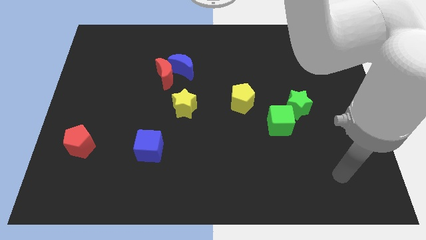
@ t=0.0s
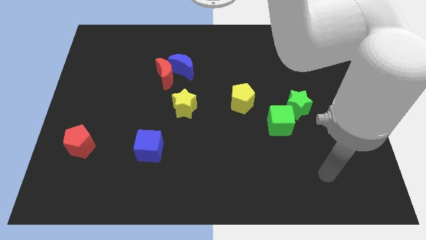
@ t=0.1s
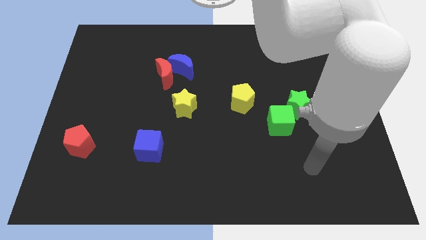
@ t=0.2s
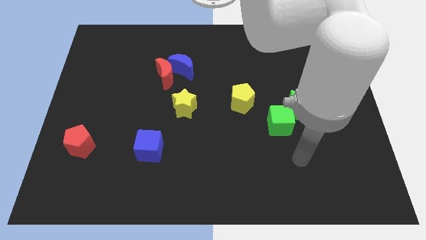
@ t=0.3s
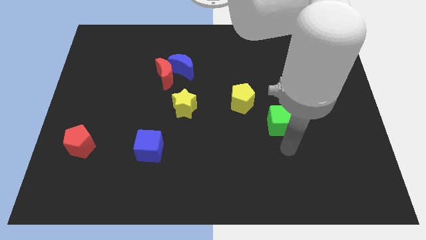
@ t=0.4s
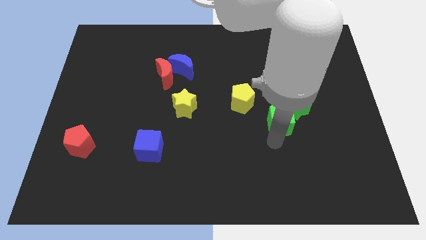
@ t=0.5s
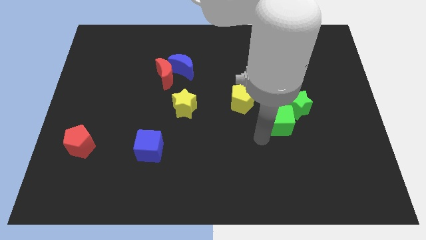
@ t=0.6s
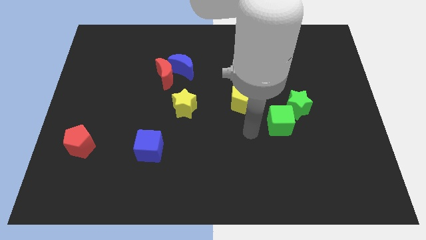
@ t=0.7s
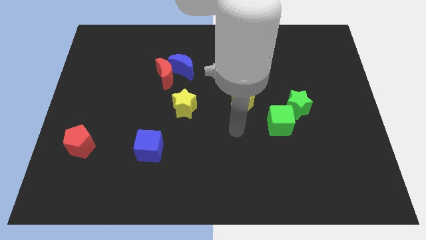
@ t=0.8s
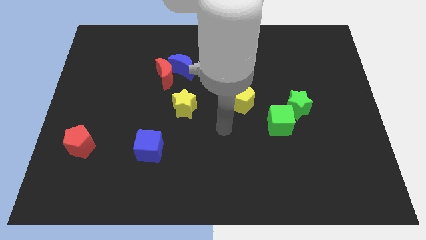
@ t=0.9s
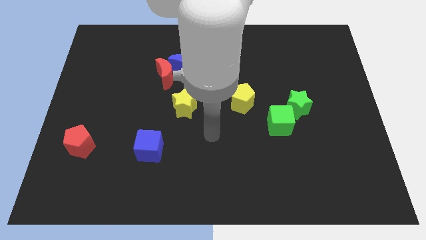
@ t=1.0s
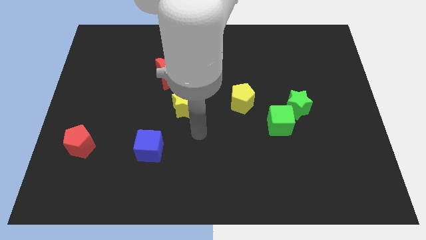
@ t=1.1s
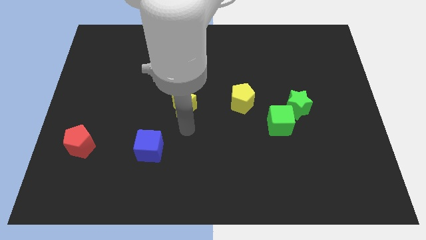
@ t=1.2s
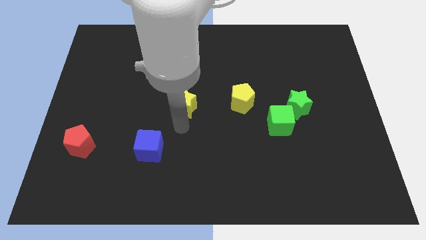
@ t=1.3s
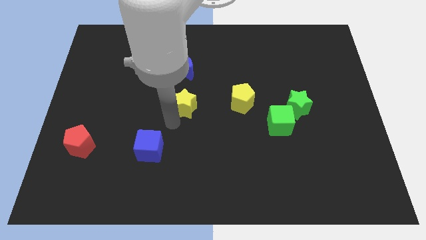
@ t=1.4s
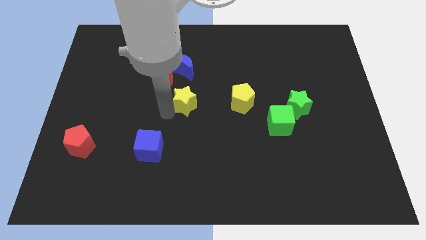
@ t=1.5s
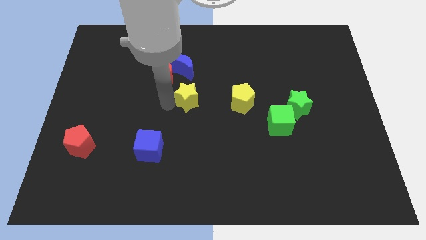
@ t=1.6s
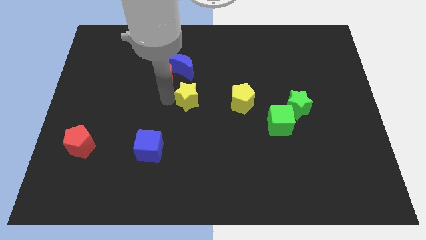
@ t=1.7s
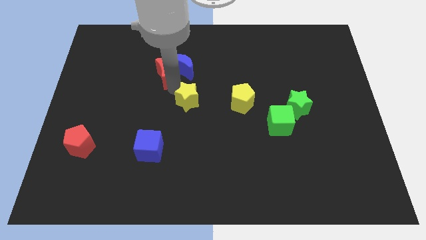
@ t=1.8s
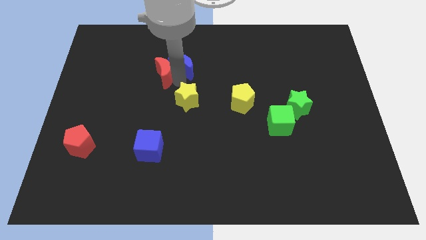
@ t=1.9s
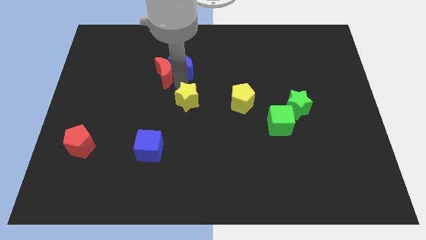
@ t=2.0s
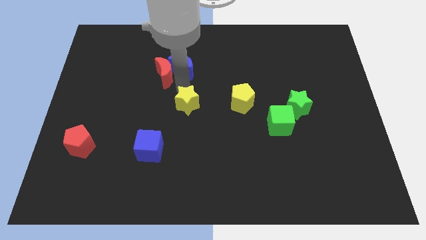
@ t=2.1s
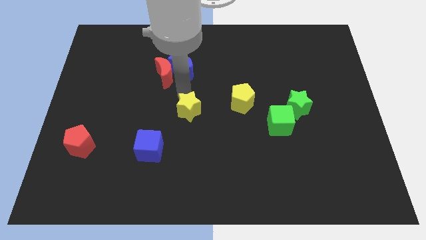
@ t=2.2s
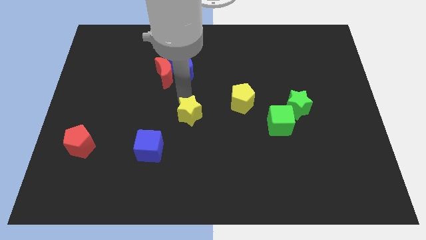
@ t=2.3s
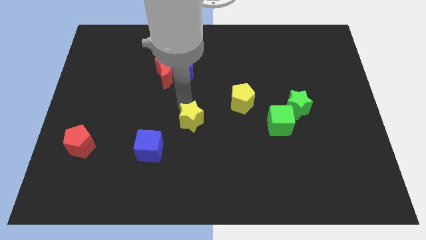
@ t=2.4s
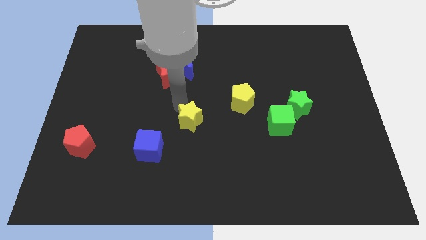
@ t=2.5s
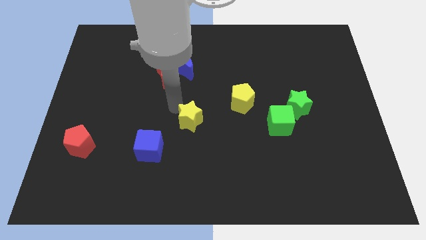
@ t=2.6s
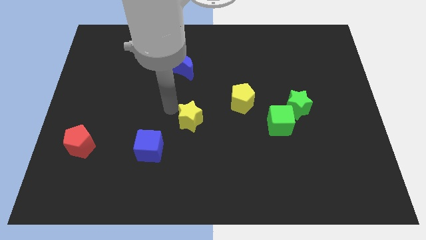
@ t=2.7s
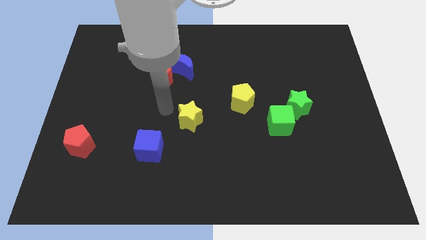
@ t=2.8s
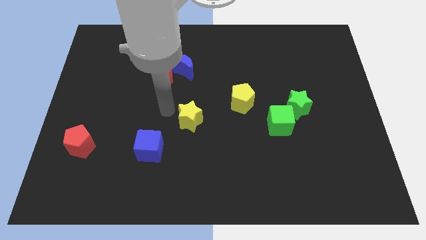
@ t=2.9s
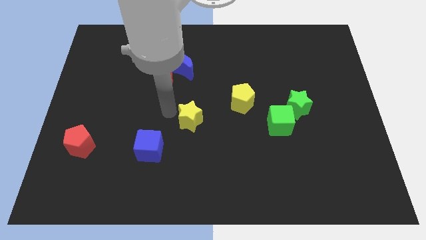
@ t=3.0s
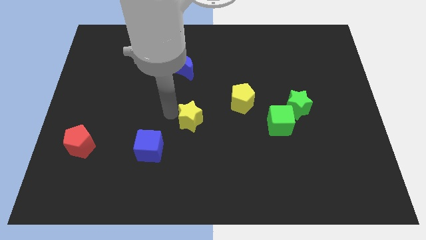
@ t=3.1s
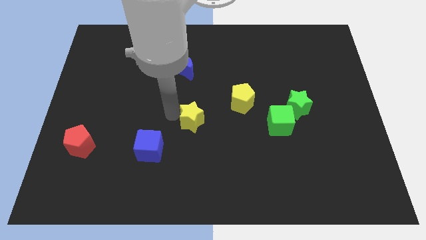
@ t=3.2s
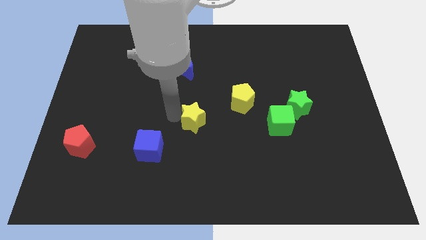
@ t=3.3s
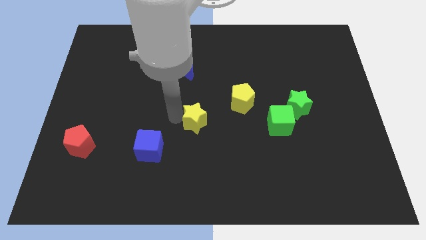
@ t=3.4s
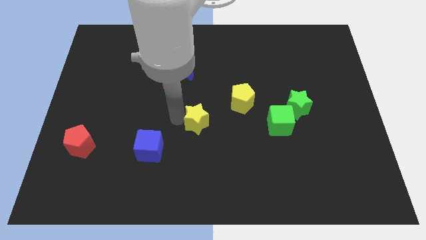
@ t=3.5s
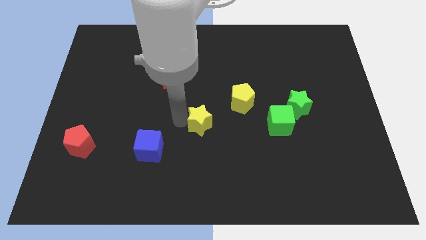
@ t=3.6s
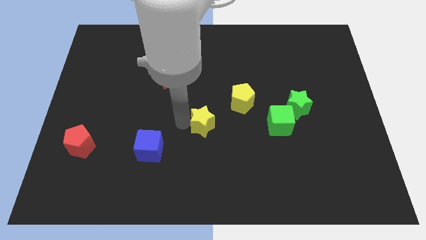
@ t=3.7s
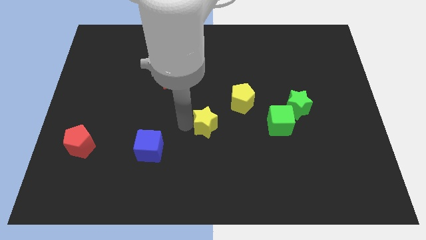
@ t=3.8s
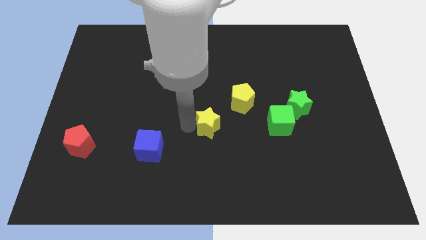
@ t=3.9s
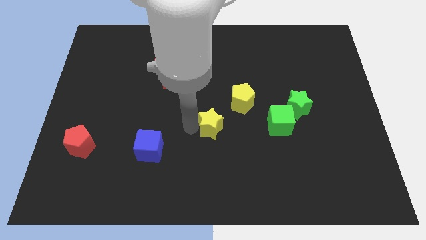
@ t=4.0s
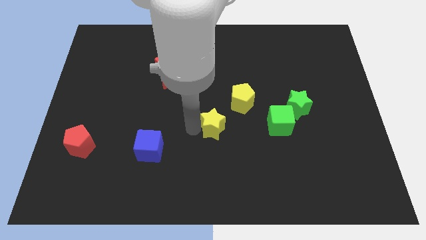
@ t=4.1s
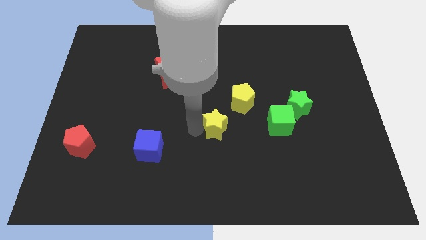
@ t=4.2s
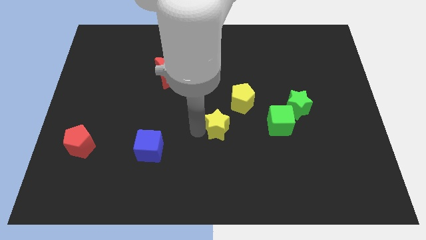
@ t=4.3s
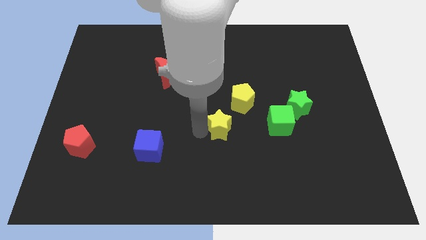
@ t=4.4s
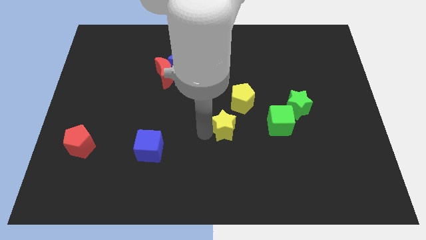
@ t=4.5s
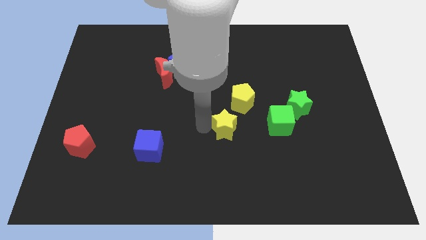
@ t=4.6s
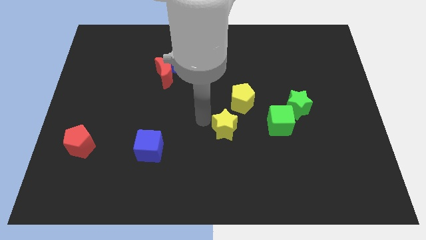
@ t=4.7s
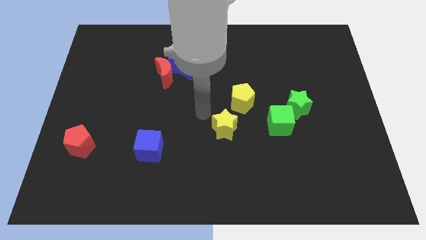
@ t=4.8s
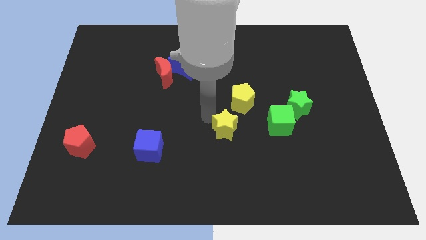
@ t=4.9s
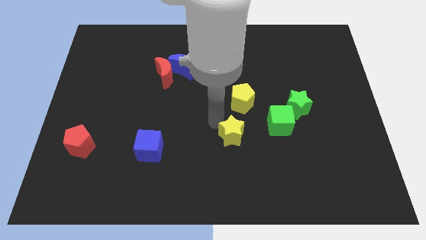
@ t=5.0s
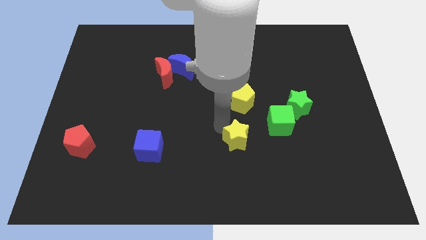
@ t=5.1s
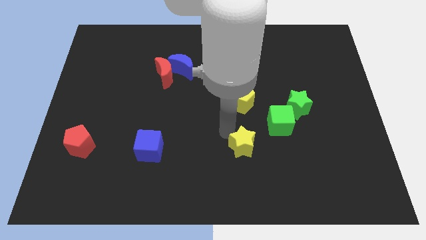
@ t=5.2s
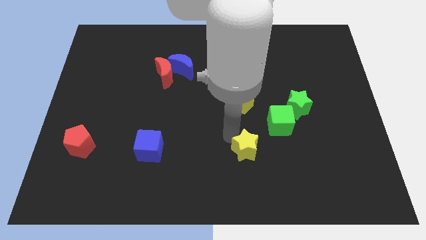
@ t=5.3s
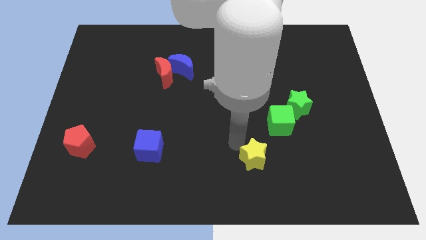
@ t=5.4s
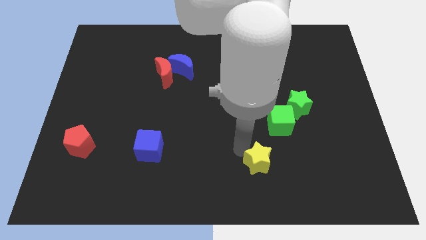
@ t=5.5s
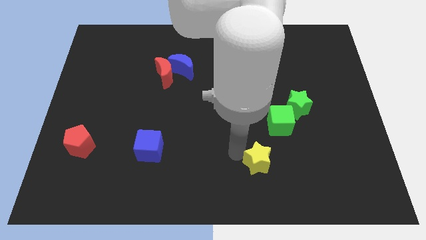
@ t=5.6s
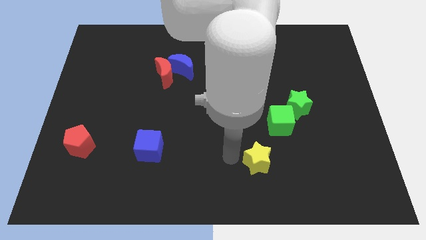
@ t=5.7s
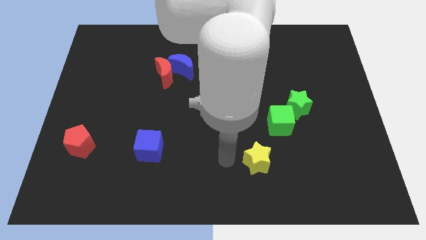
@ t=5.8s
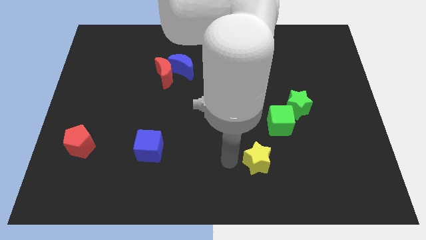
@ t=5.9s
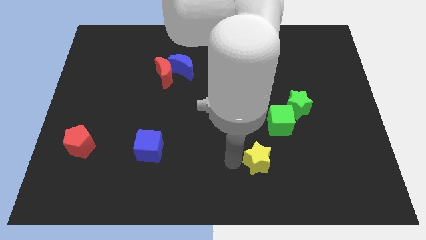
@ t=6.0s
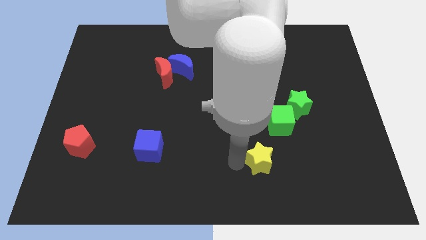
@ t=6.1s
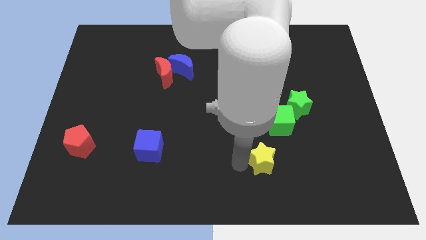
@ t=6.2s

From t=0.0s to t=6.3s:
push the yellow star below the green cube
